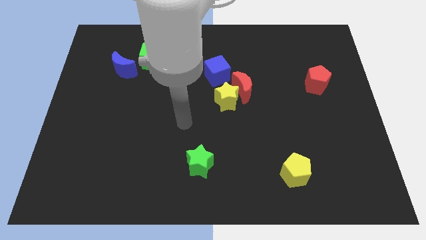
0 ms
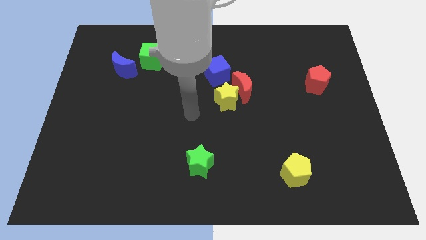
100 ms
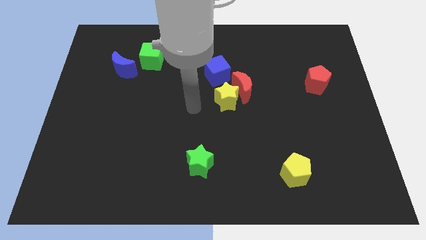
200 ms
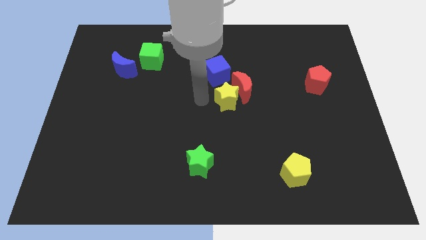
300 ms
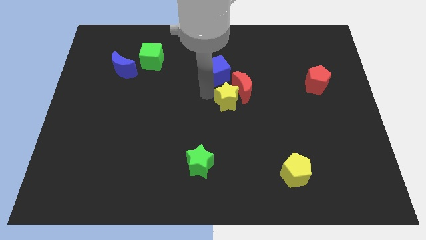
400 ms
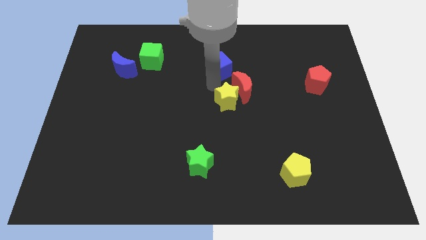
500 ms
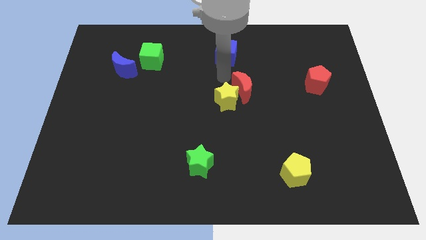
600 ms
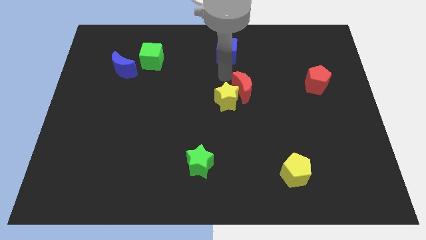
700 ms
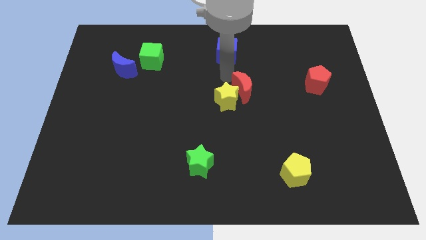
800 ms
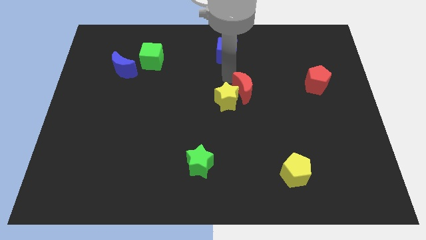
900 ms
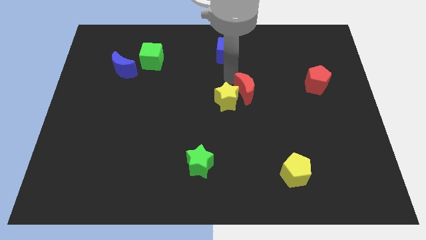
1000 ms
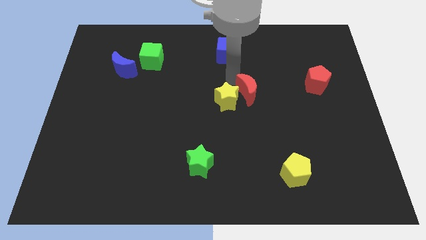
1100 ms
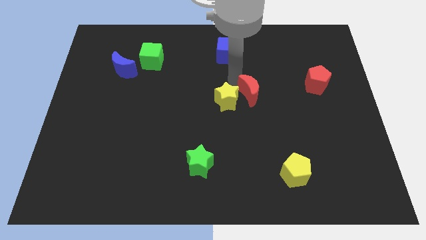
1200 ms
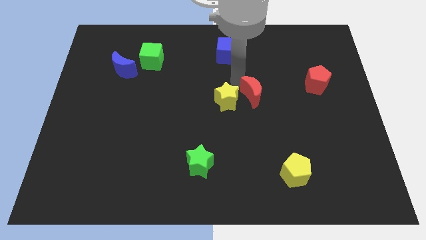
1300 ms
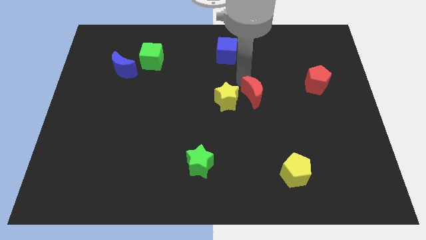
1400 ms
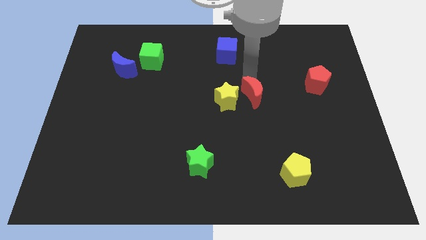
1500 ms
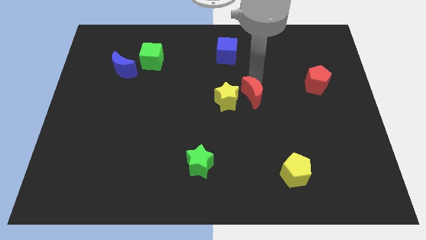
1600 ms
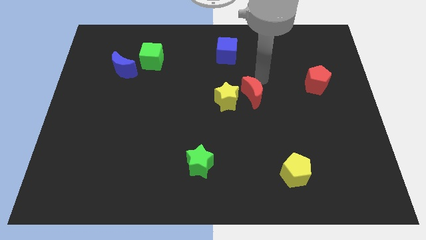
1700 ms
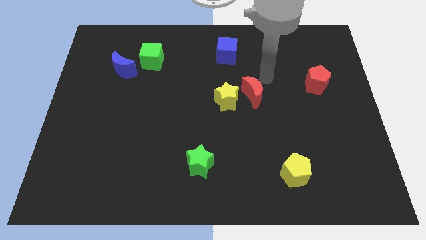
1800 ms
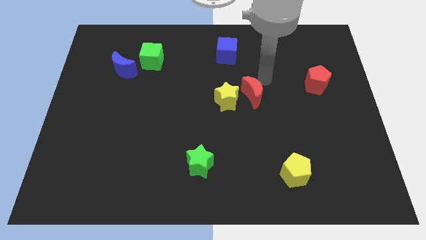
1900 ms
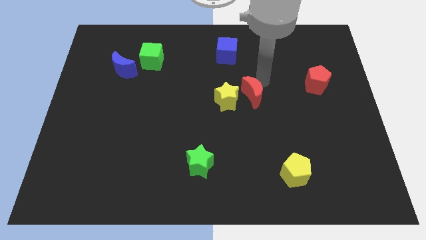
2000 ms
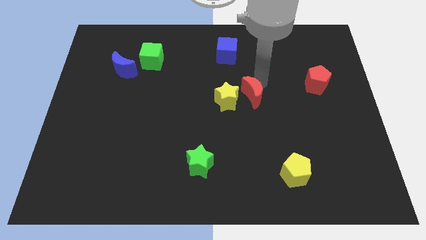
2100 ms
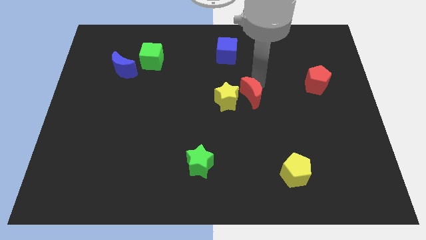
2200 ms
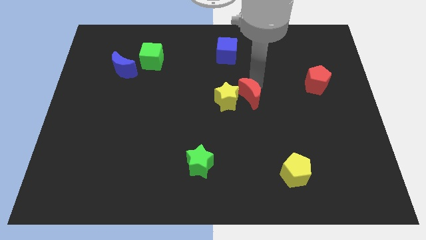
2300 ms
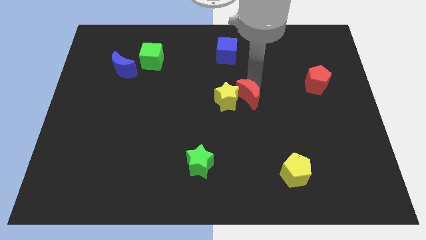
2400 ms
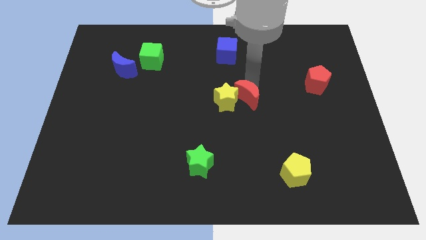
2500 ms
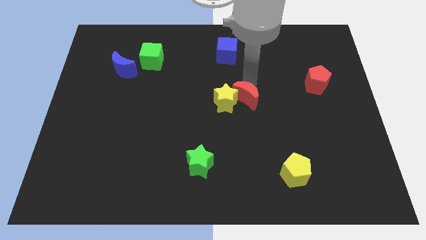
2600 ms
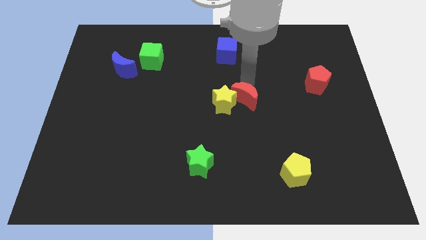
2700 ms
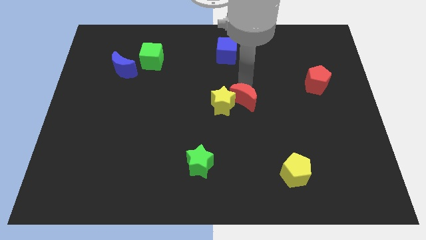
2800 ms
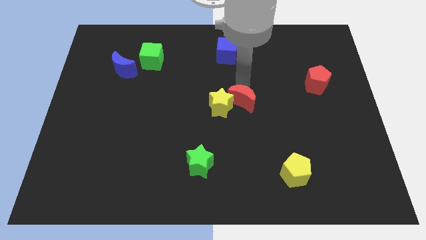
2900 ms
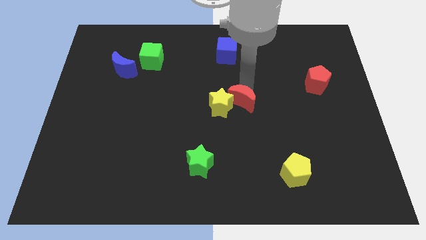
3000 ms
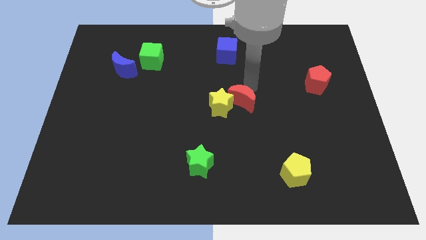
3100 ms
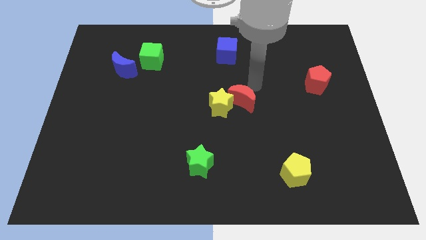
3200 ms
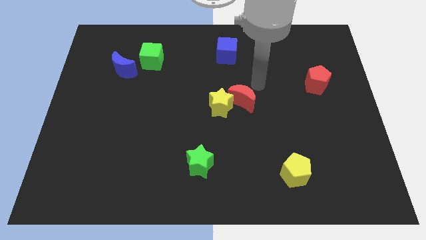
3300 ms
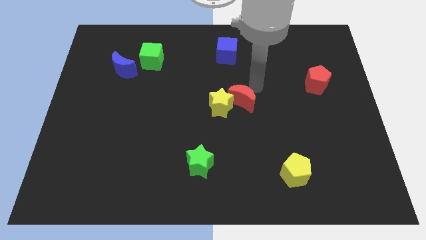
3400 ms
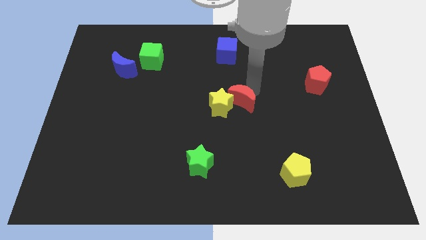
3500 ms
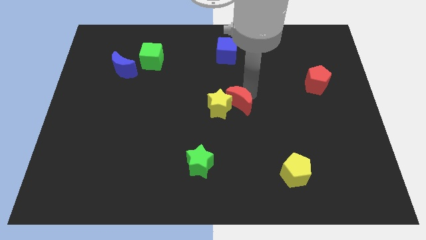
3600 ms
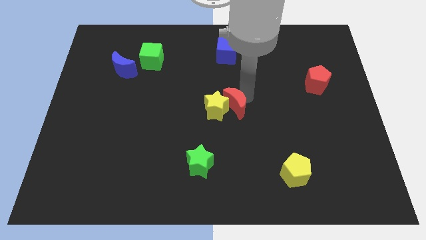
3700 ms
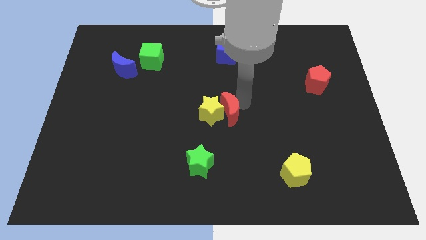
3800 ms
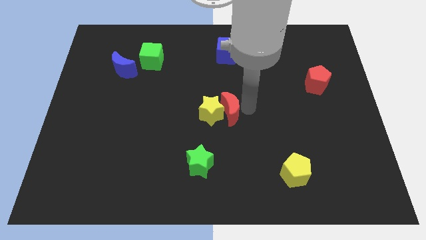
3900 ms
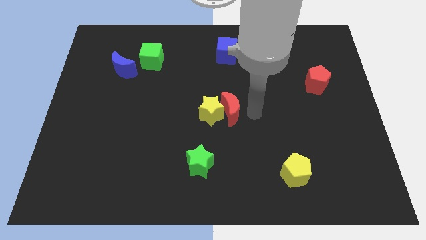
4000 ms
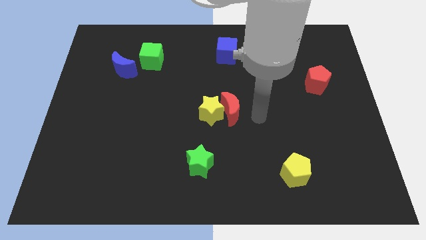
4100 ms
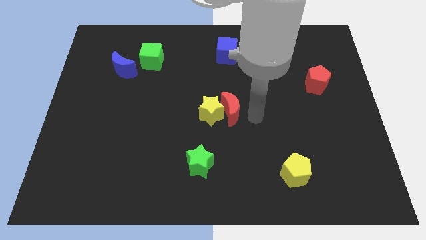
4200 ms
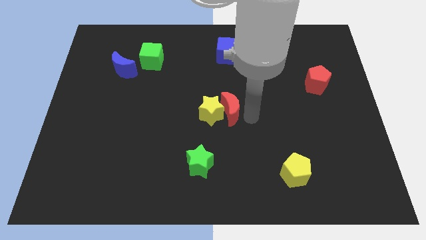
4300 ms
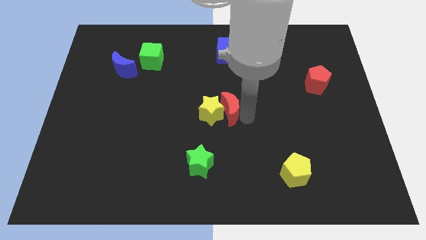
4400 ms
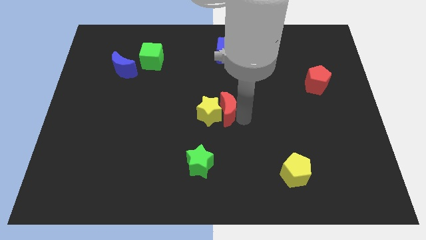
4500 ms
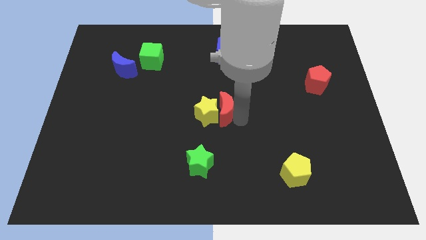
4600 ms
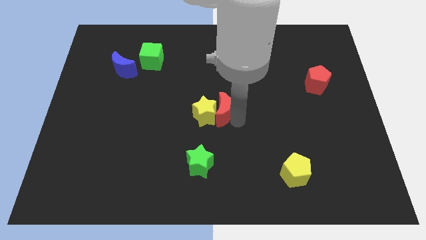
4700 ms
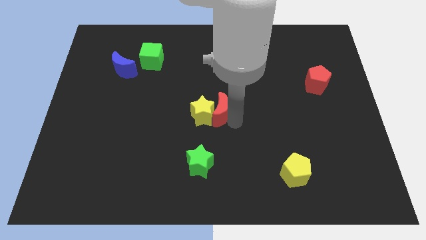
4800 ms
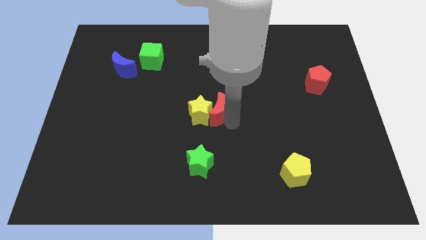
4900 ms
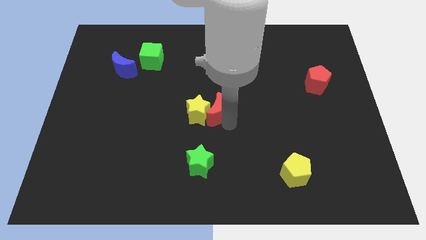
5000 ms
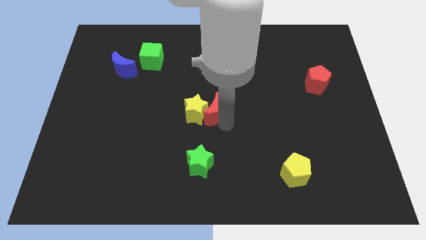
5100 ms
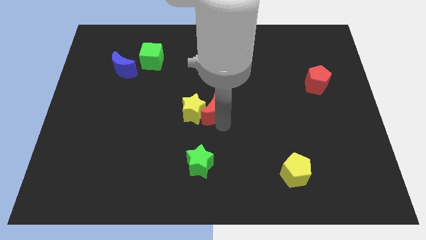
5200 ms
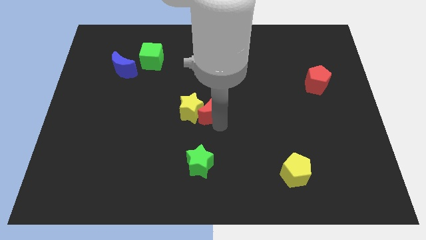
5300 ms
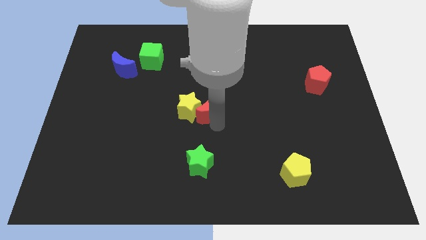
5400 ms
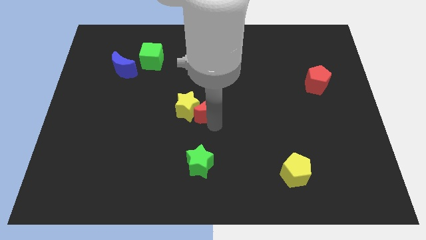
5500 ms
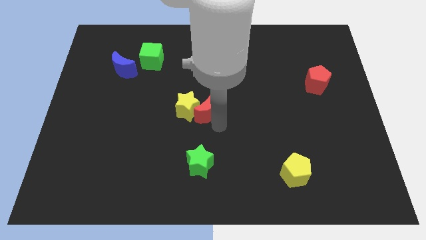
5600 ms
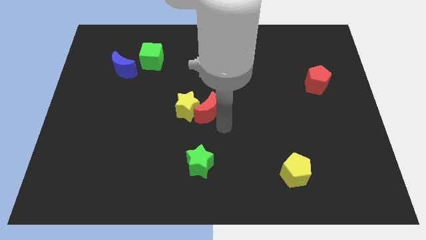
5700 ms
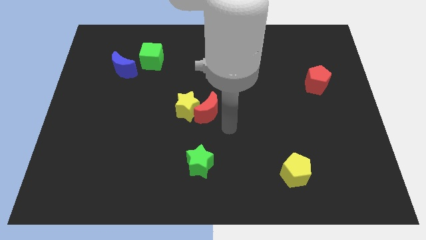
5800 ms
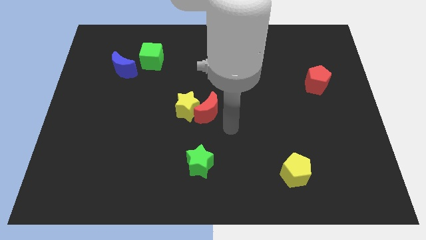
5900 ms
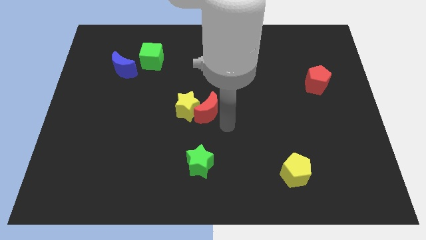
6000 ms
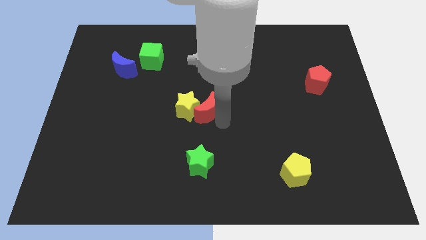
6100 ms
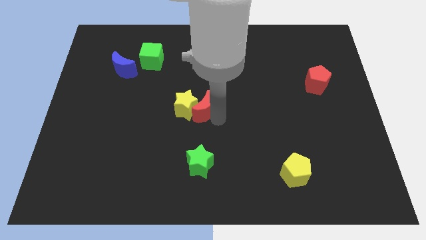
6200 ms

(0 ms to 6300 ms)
move the red moon a little bit to the left

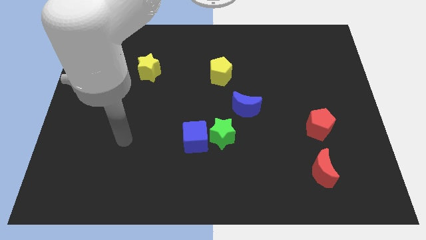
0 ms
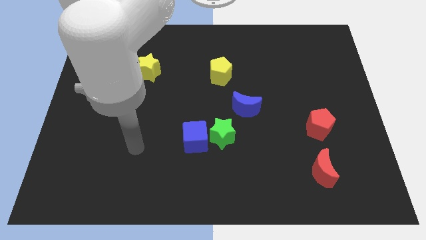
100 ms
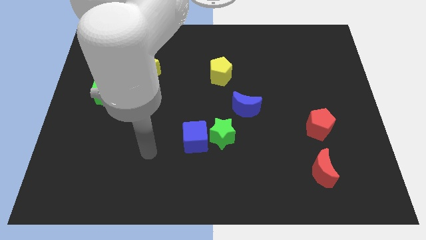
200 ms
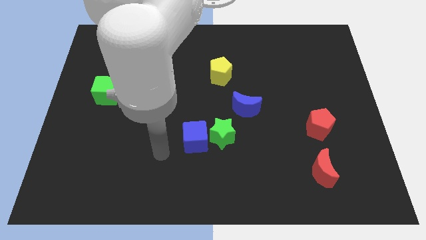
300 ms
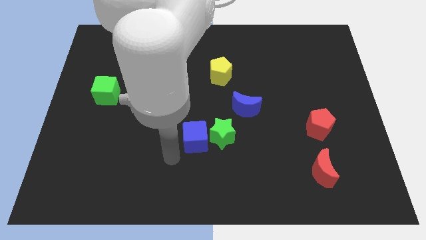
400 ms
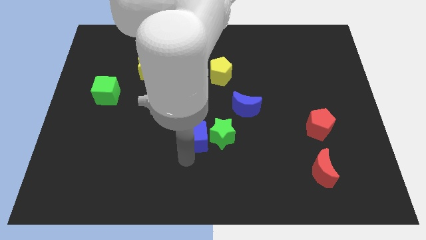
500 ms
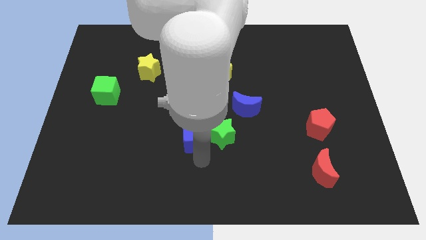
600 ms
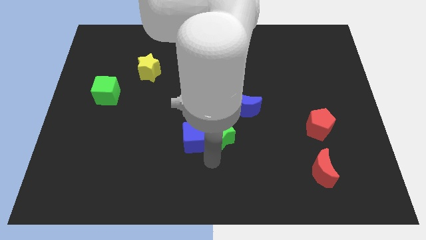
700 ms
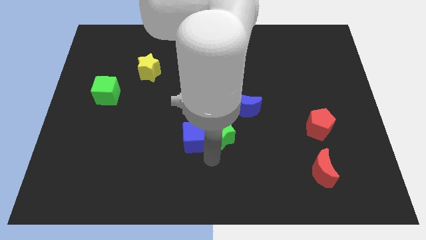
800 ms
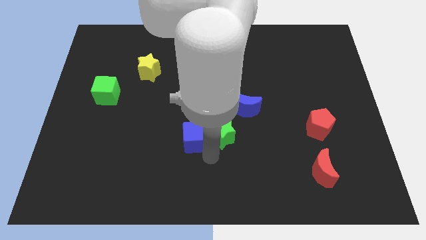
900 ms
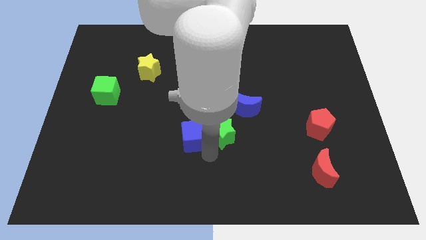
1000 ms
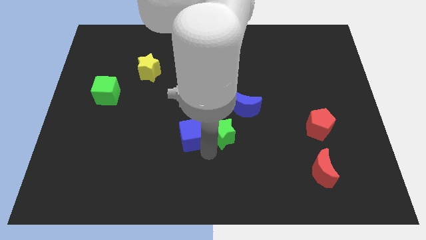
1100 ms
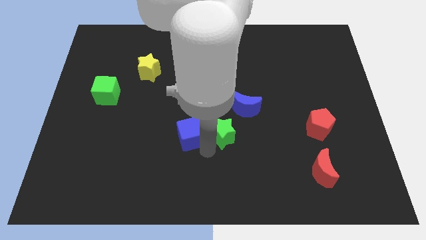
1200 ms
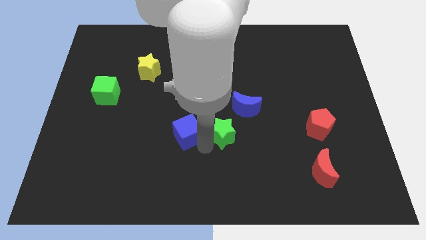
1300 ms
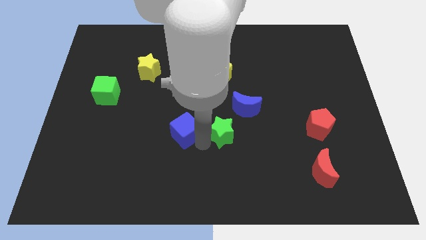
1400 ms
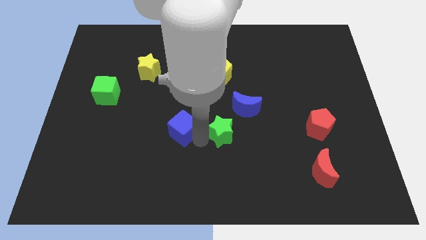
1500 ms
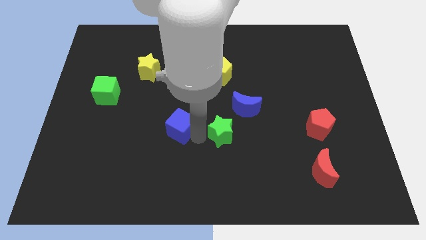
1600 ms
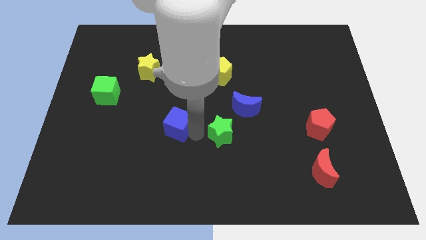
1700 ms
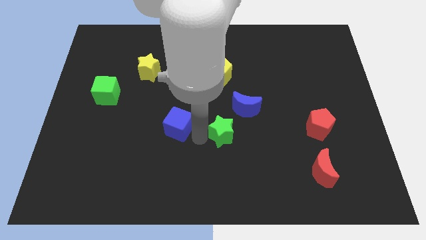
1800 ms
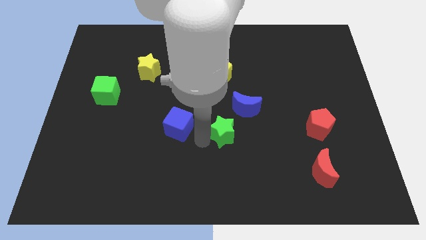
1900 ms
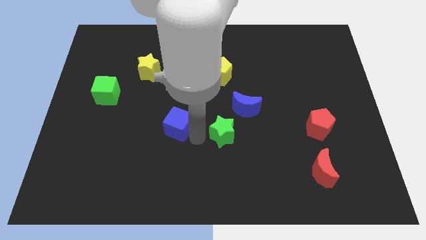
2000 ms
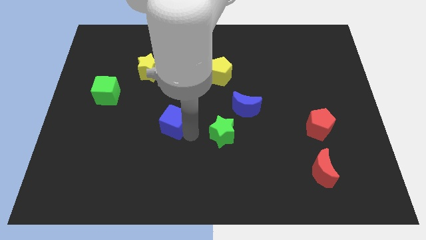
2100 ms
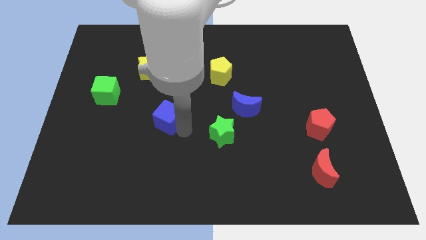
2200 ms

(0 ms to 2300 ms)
push the blue cube upwards and to the left diagonally a little
